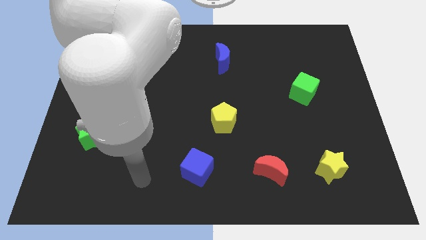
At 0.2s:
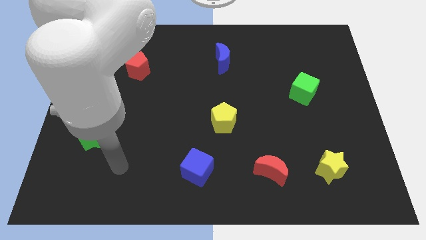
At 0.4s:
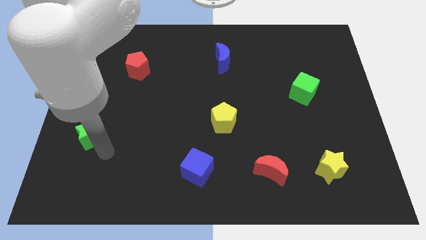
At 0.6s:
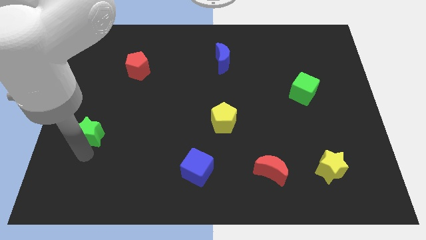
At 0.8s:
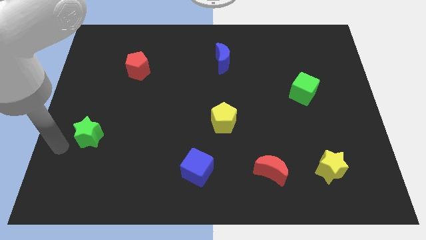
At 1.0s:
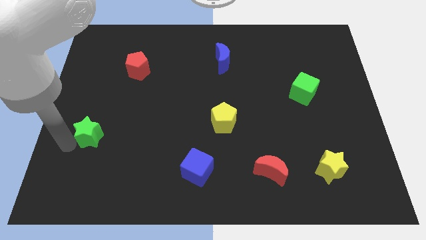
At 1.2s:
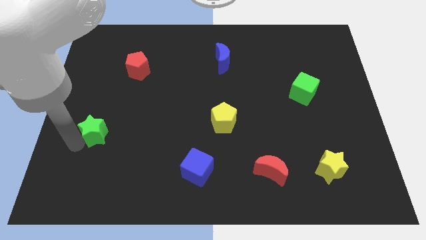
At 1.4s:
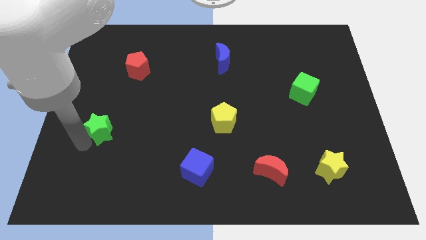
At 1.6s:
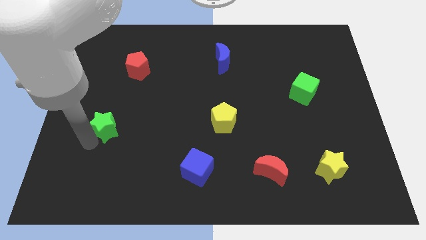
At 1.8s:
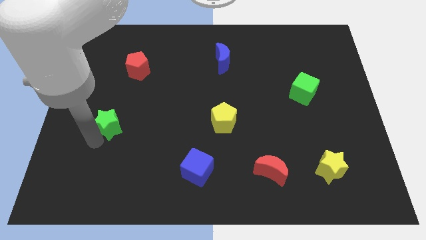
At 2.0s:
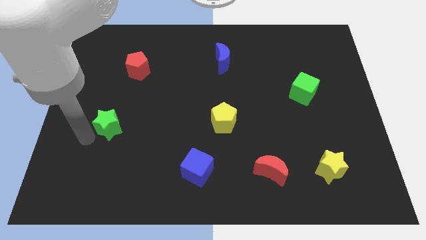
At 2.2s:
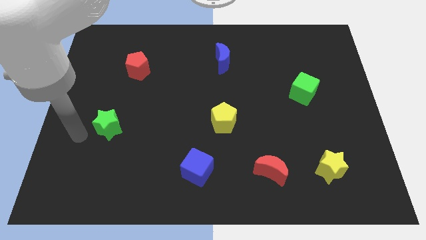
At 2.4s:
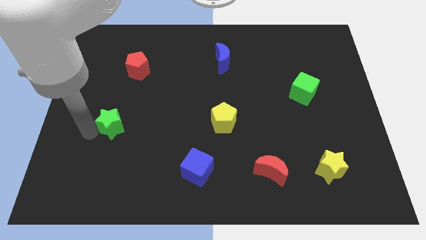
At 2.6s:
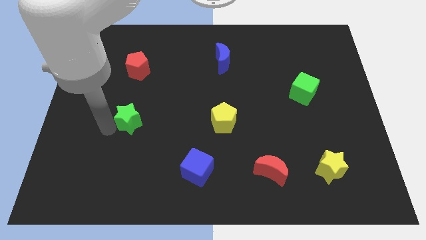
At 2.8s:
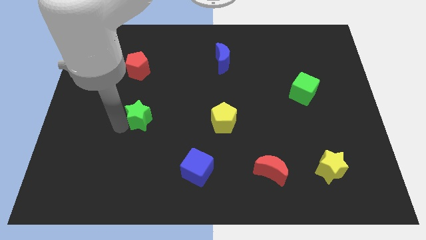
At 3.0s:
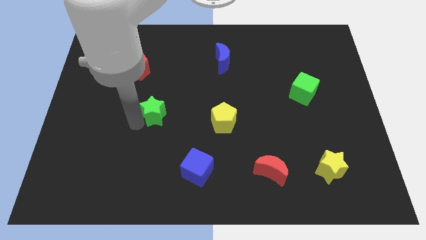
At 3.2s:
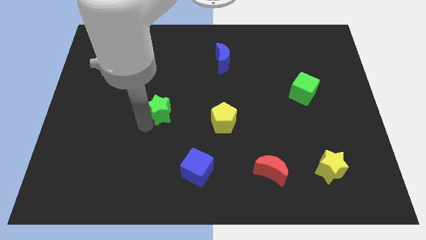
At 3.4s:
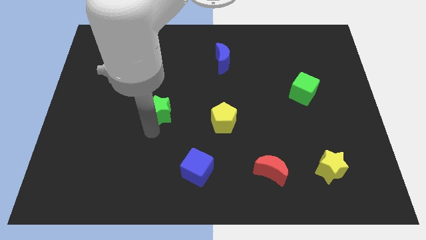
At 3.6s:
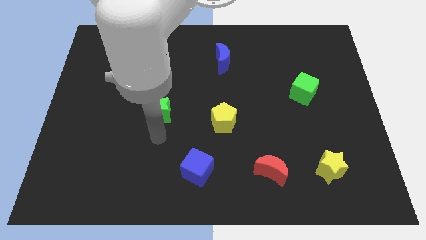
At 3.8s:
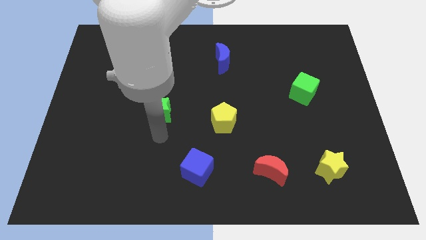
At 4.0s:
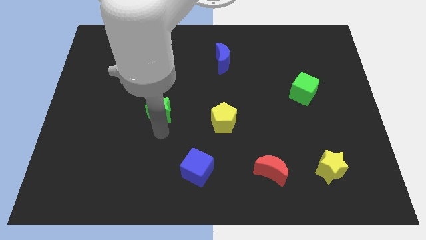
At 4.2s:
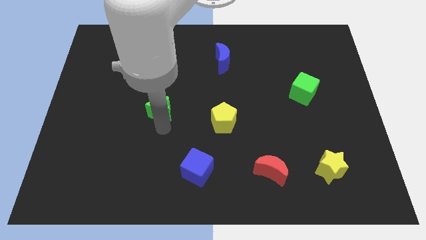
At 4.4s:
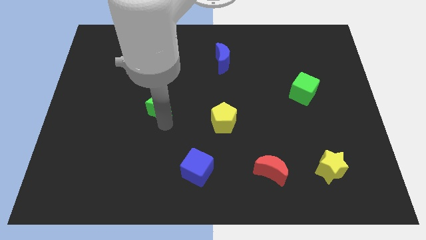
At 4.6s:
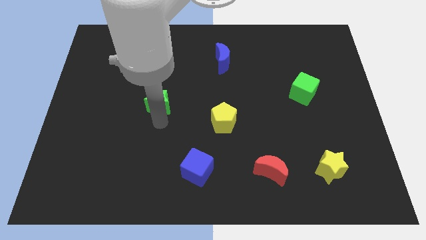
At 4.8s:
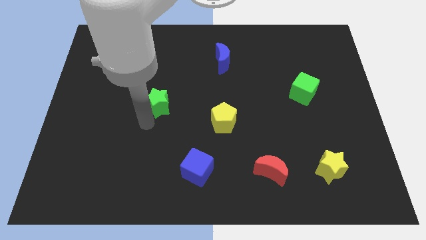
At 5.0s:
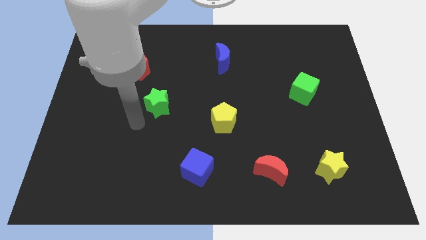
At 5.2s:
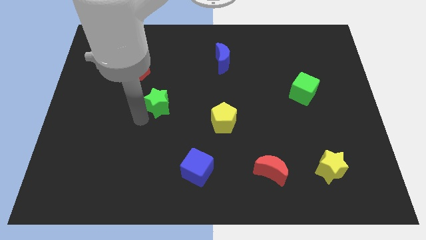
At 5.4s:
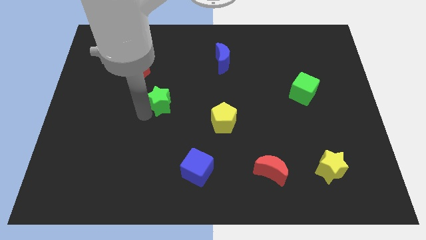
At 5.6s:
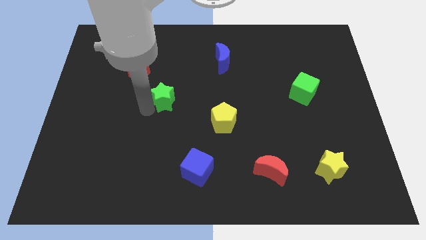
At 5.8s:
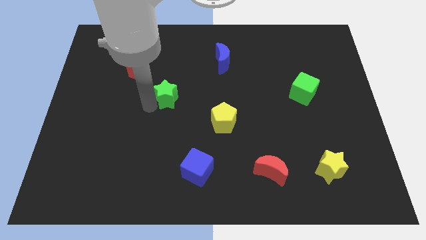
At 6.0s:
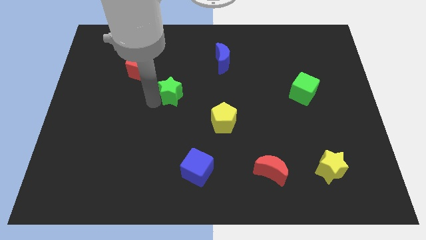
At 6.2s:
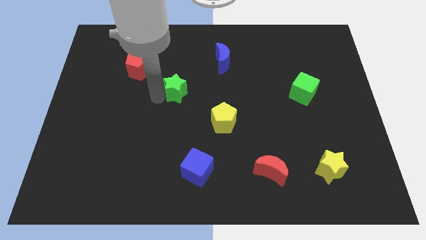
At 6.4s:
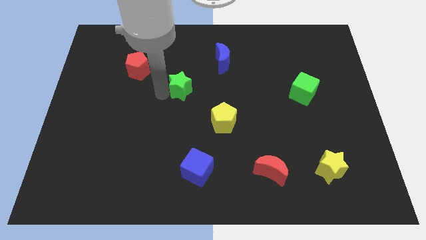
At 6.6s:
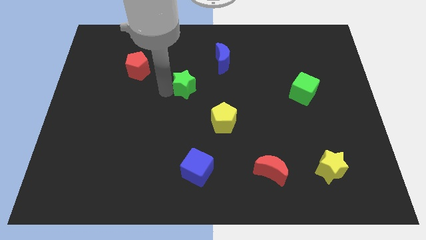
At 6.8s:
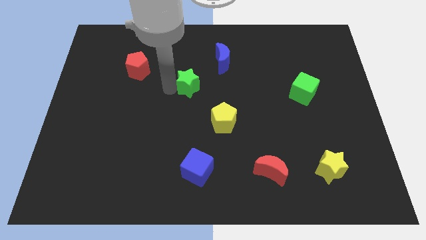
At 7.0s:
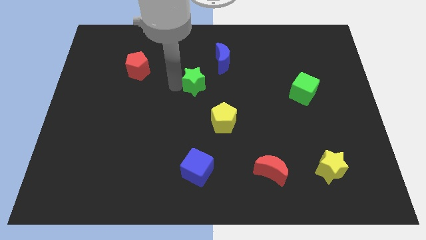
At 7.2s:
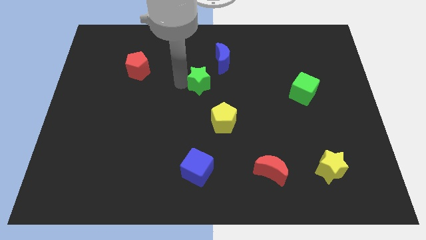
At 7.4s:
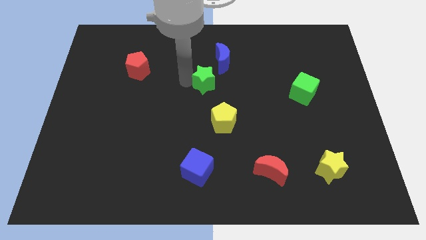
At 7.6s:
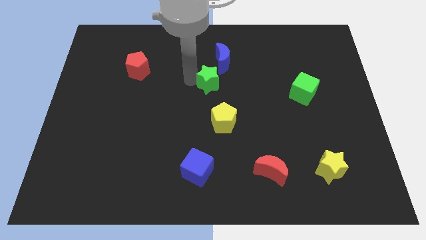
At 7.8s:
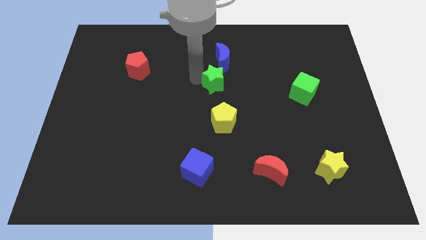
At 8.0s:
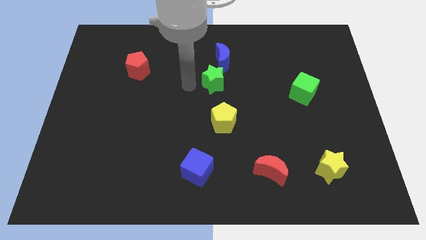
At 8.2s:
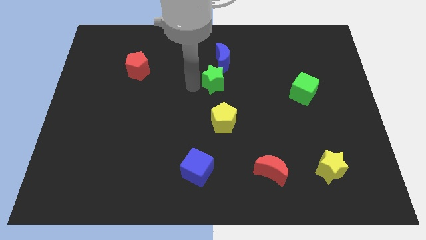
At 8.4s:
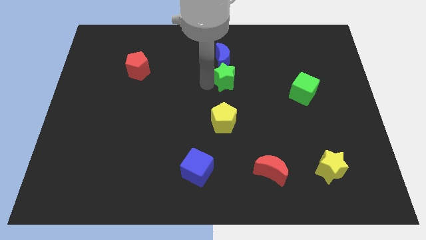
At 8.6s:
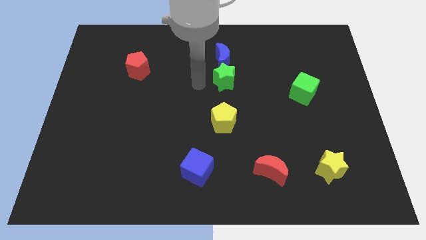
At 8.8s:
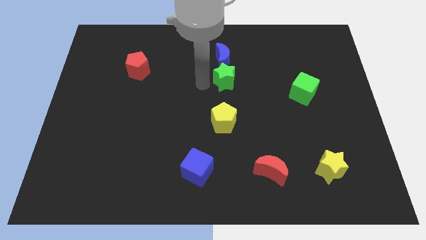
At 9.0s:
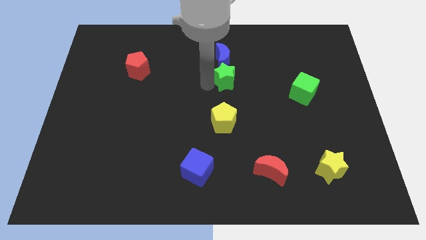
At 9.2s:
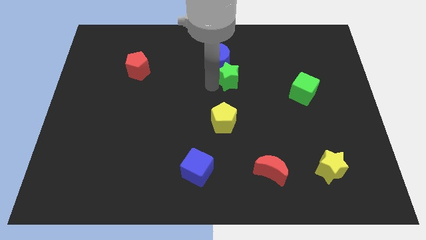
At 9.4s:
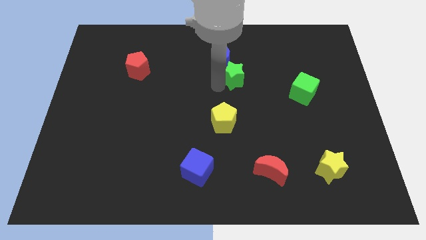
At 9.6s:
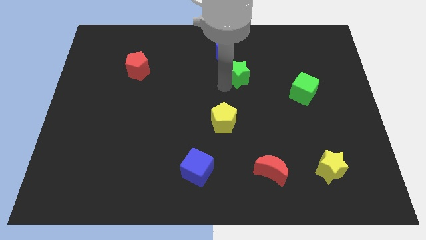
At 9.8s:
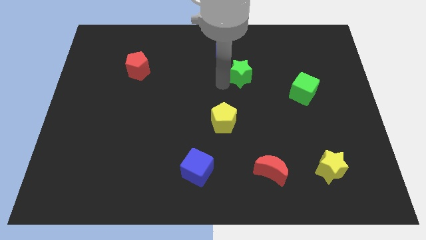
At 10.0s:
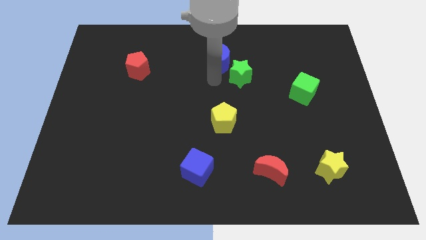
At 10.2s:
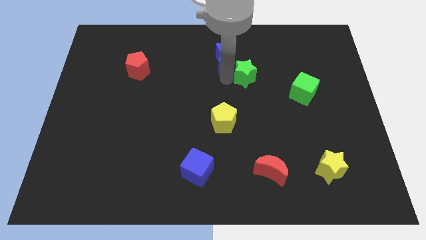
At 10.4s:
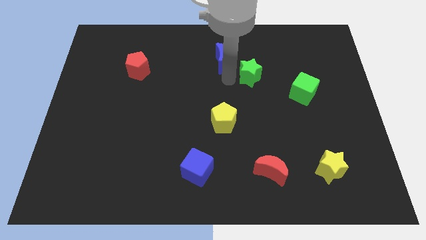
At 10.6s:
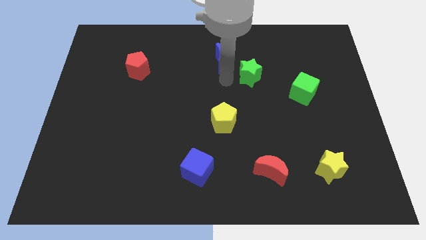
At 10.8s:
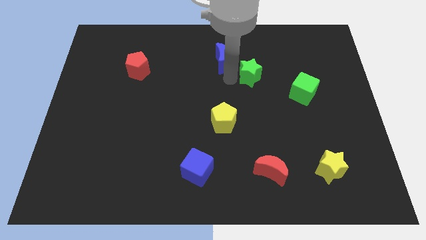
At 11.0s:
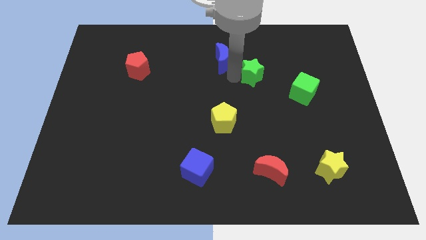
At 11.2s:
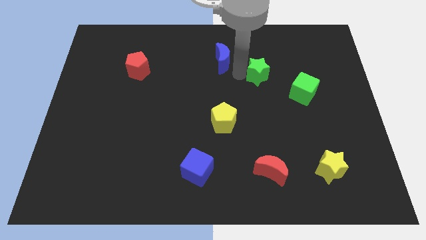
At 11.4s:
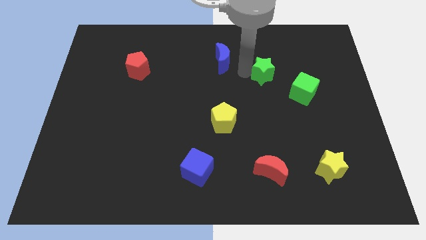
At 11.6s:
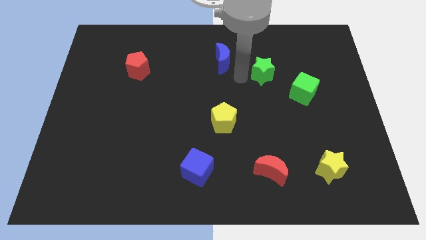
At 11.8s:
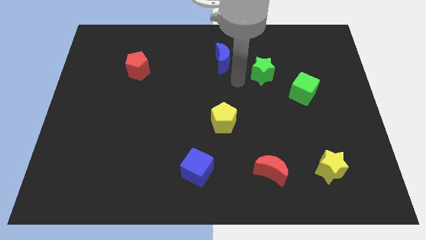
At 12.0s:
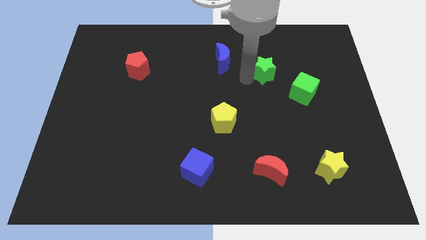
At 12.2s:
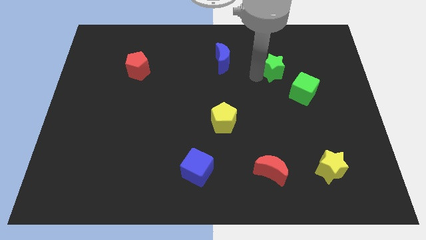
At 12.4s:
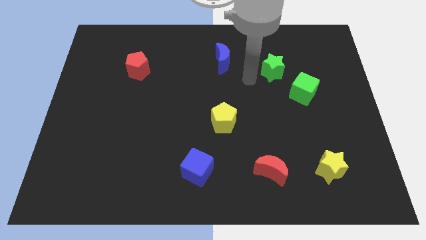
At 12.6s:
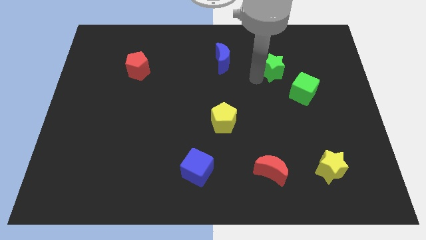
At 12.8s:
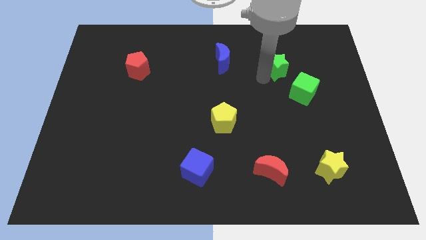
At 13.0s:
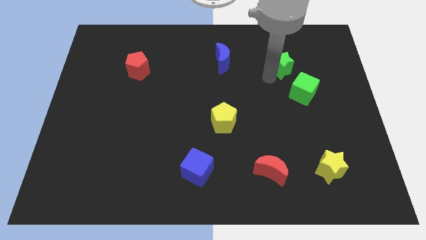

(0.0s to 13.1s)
put the green star above the green cube

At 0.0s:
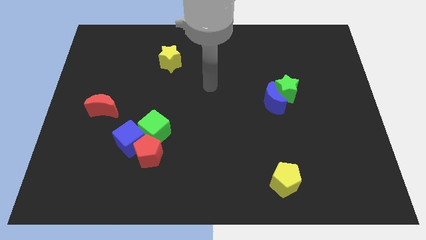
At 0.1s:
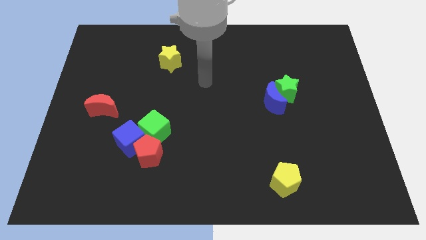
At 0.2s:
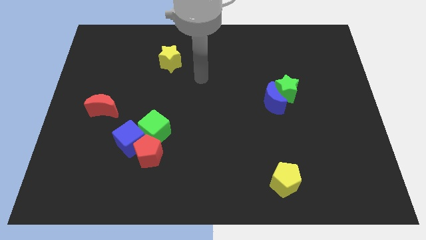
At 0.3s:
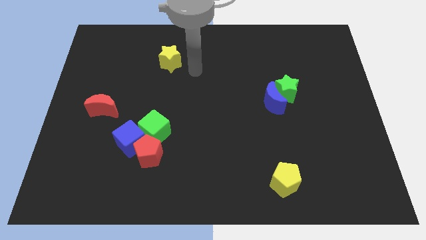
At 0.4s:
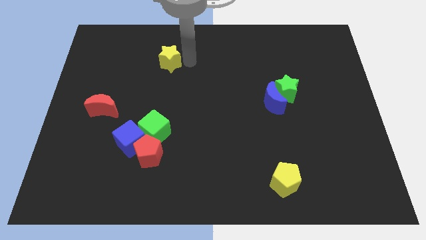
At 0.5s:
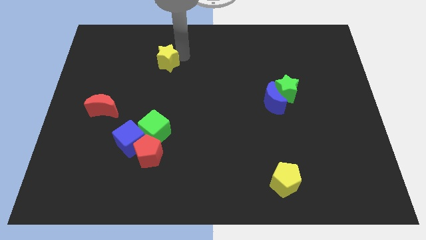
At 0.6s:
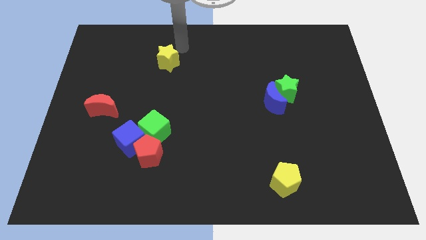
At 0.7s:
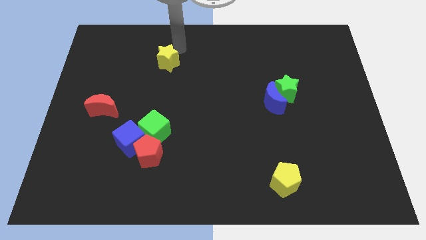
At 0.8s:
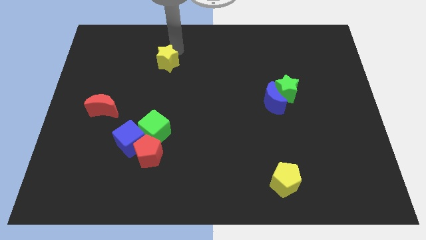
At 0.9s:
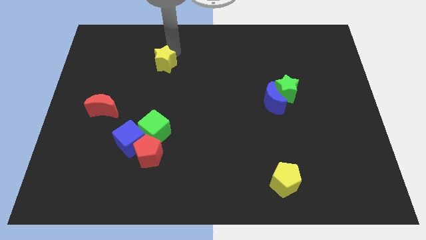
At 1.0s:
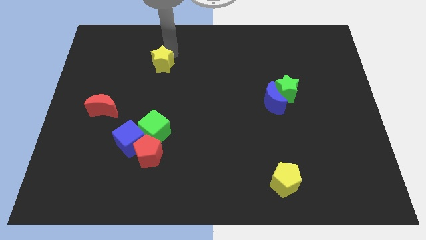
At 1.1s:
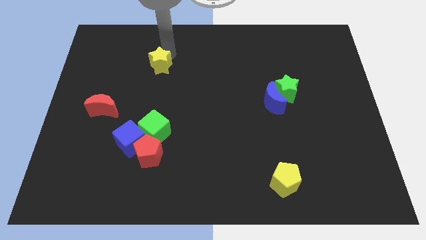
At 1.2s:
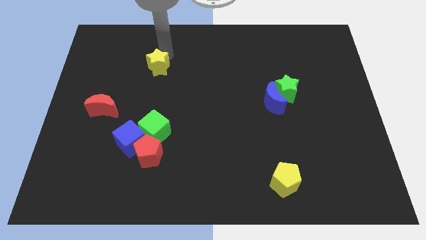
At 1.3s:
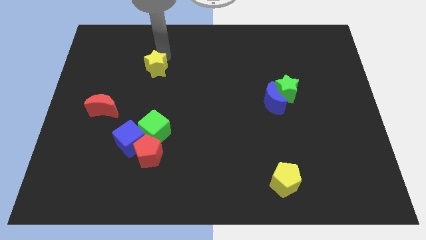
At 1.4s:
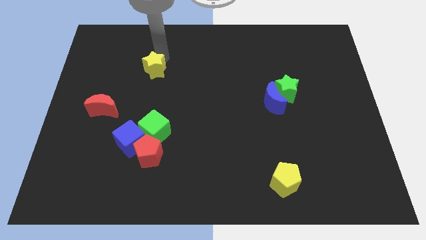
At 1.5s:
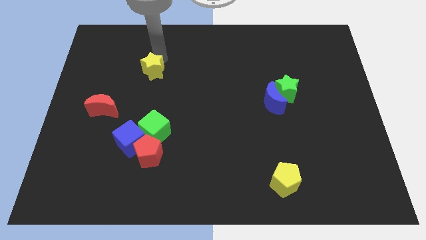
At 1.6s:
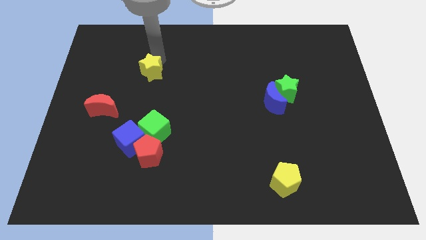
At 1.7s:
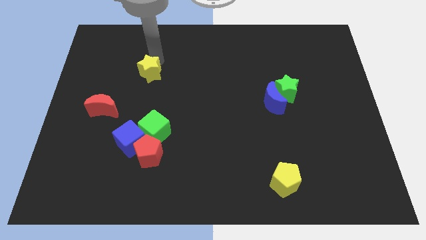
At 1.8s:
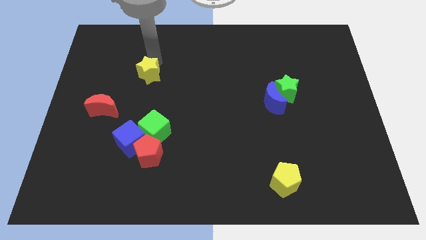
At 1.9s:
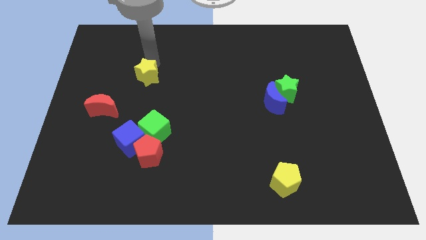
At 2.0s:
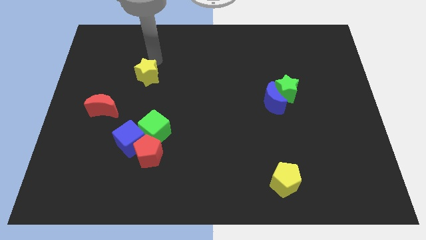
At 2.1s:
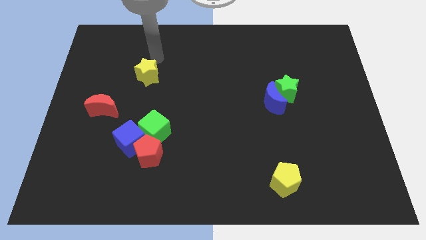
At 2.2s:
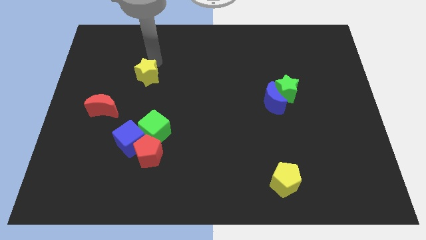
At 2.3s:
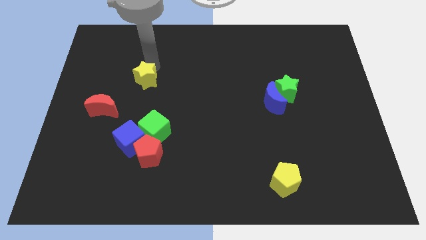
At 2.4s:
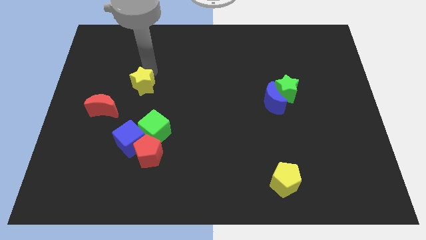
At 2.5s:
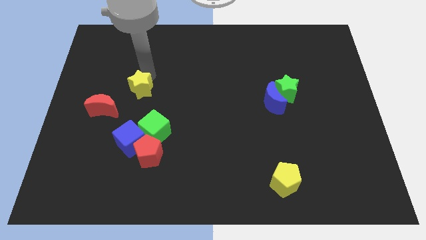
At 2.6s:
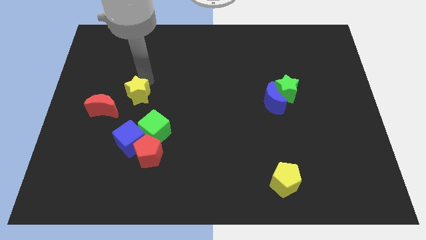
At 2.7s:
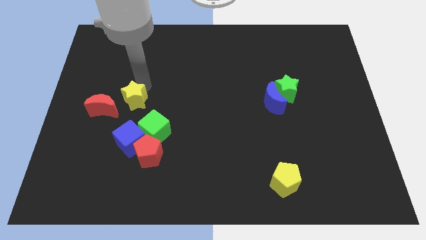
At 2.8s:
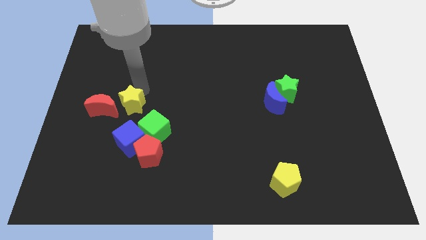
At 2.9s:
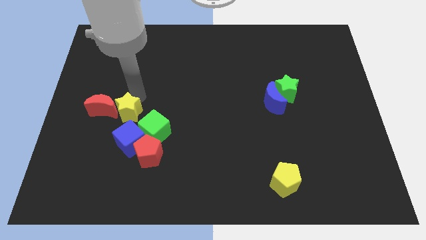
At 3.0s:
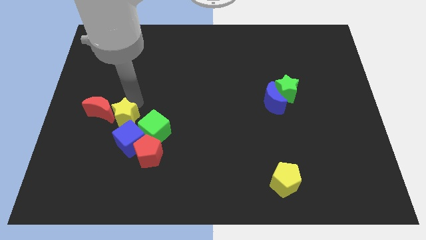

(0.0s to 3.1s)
push the yellow star left of the green cube
